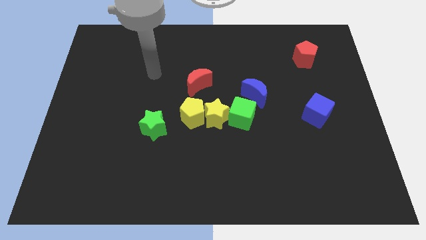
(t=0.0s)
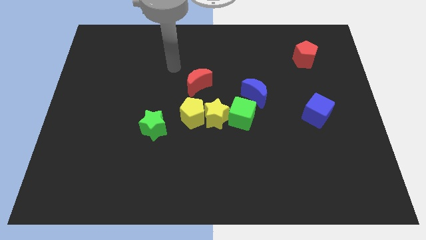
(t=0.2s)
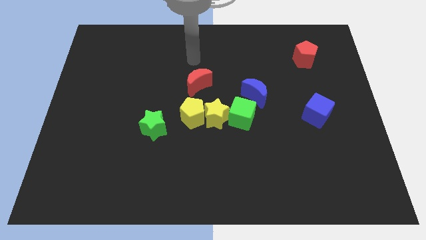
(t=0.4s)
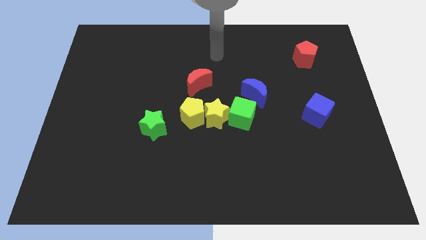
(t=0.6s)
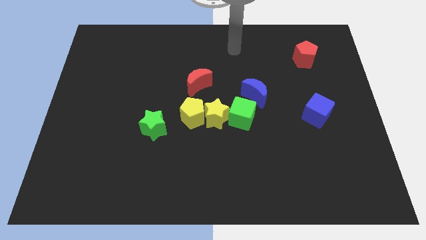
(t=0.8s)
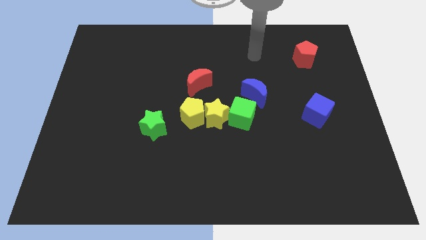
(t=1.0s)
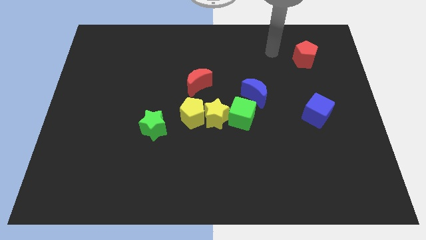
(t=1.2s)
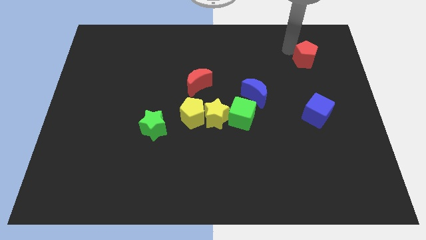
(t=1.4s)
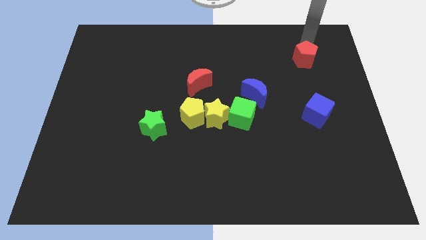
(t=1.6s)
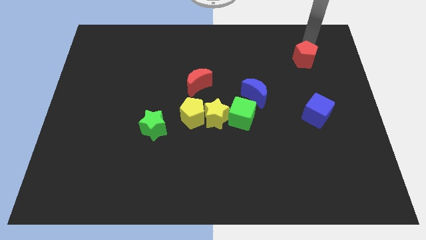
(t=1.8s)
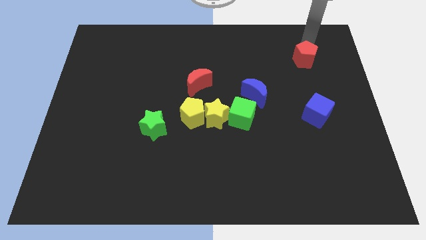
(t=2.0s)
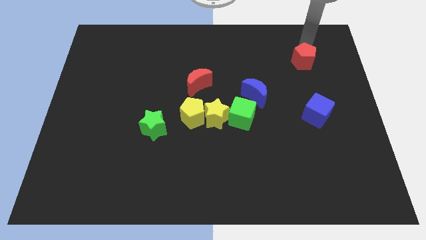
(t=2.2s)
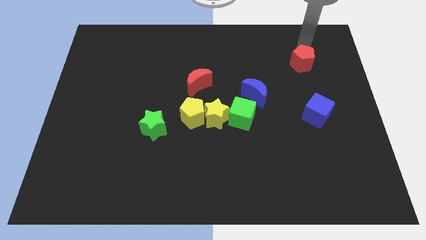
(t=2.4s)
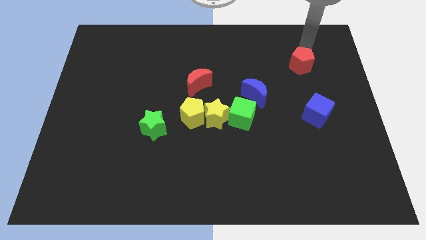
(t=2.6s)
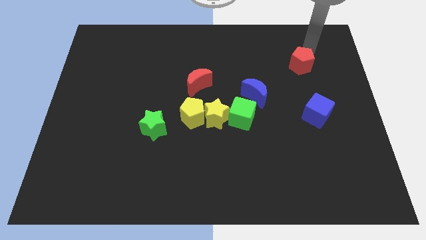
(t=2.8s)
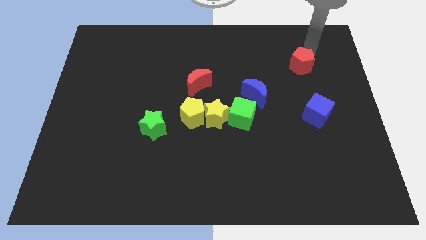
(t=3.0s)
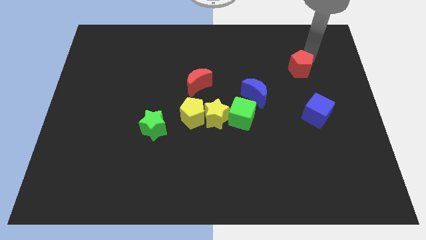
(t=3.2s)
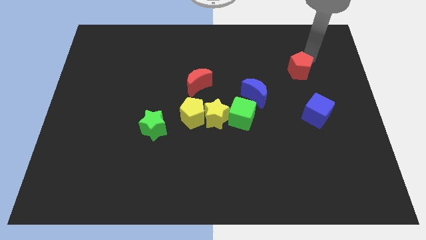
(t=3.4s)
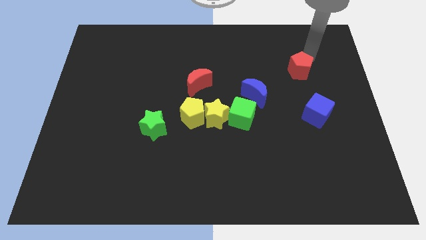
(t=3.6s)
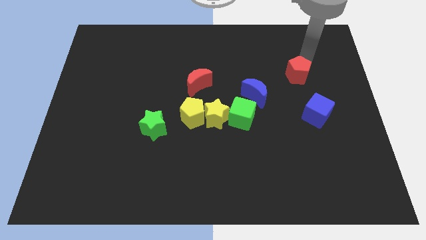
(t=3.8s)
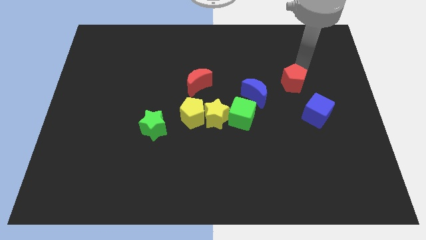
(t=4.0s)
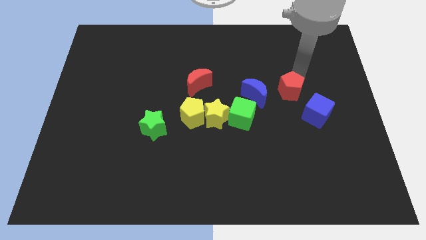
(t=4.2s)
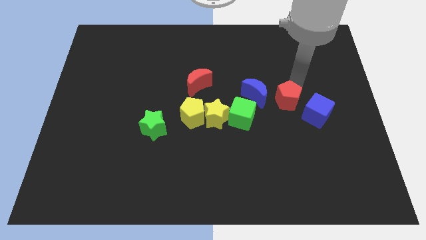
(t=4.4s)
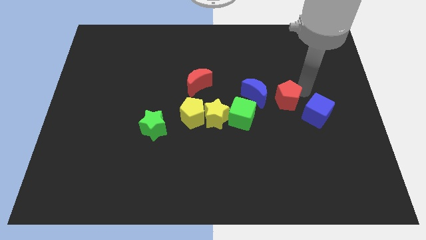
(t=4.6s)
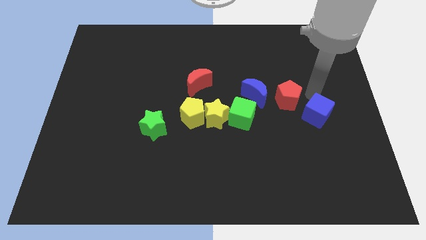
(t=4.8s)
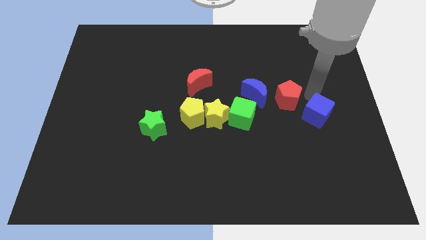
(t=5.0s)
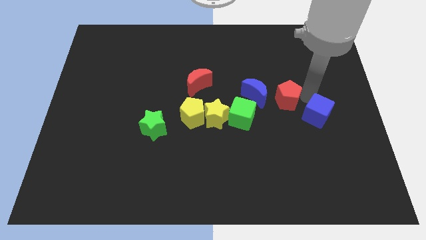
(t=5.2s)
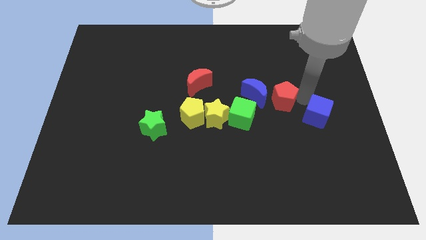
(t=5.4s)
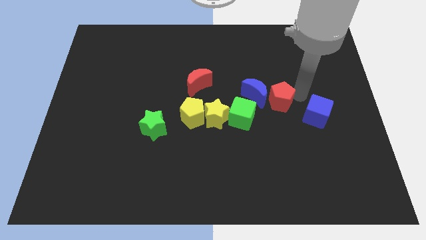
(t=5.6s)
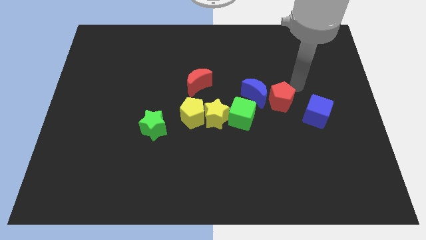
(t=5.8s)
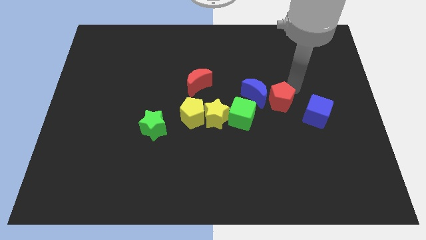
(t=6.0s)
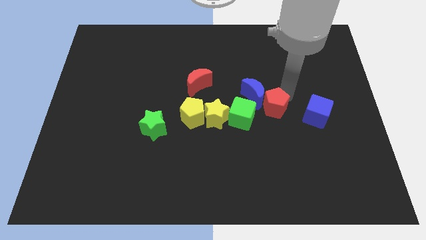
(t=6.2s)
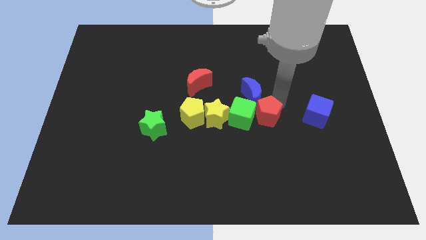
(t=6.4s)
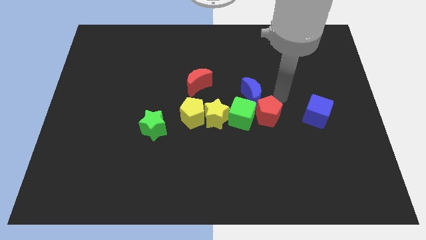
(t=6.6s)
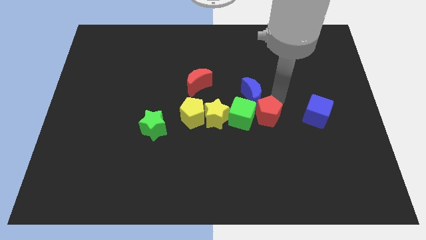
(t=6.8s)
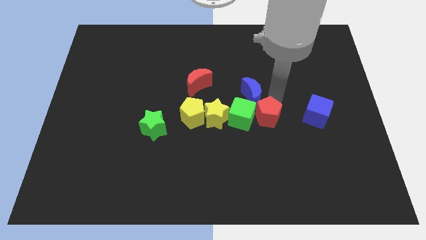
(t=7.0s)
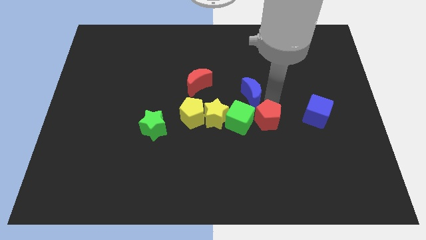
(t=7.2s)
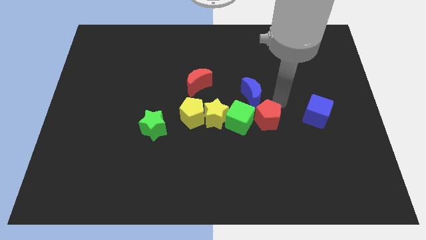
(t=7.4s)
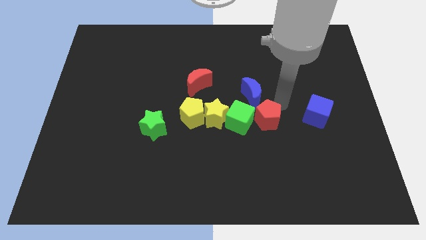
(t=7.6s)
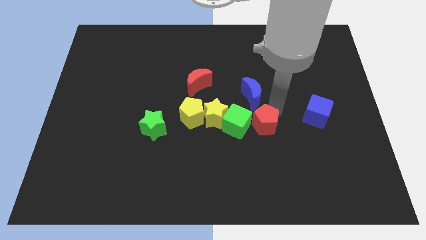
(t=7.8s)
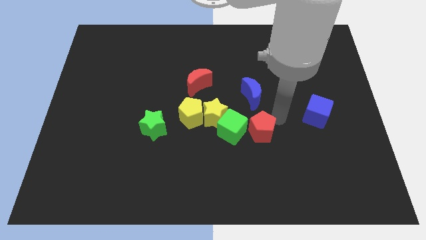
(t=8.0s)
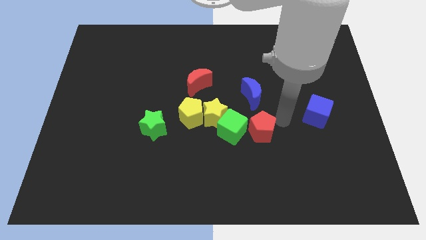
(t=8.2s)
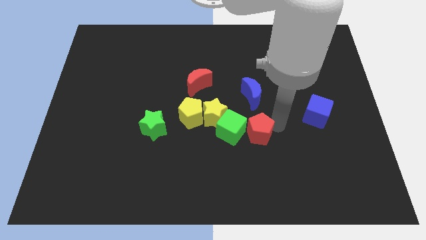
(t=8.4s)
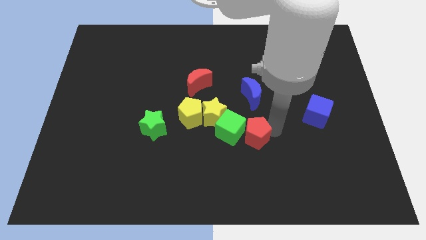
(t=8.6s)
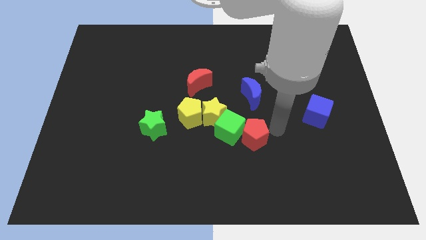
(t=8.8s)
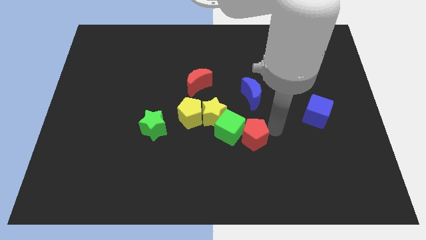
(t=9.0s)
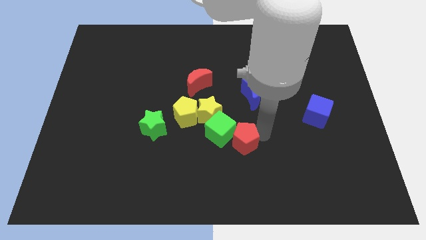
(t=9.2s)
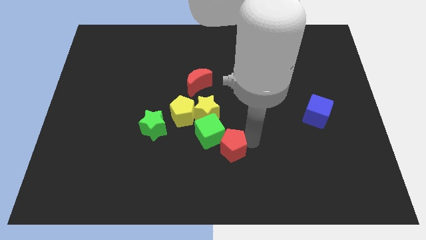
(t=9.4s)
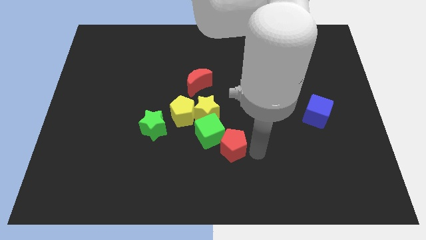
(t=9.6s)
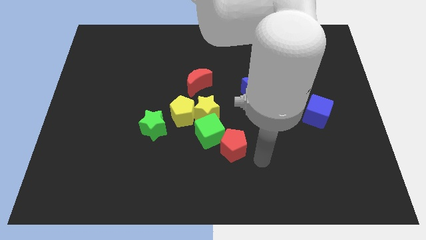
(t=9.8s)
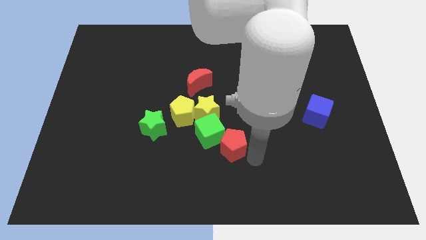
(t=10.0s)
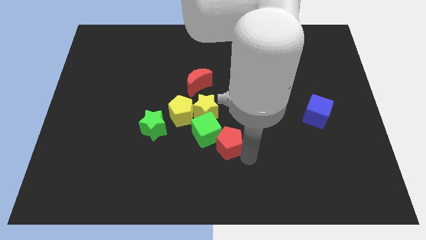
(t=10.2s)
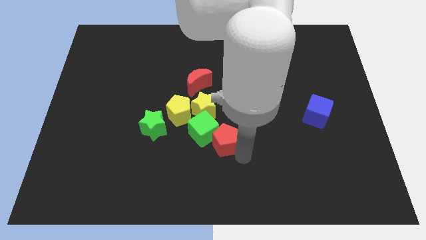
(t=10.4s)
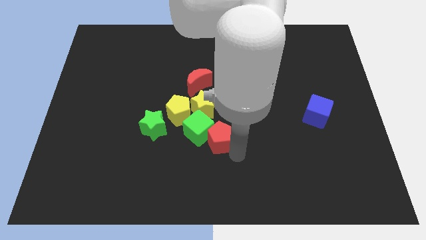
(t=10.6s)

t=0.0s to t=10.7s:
slide the red pentagon to the right side of the green star

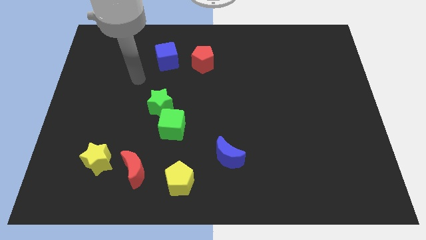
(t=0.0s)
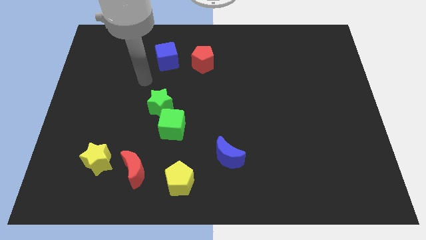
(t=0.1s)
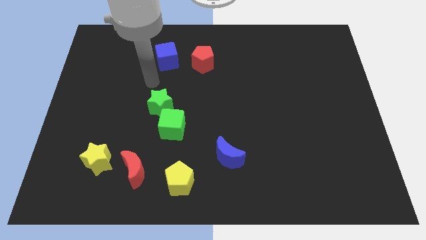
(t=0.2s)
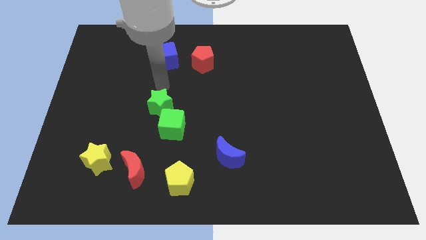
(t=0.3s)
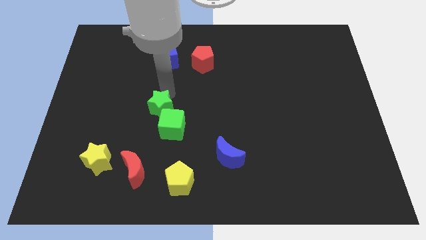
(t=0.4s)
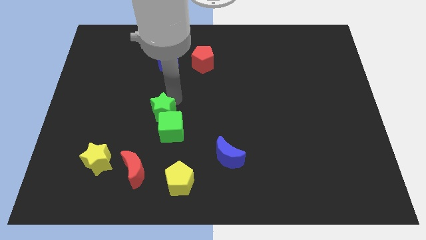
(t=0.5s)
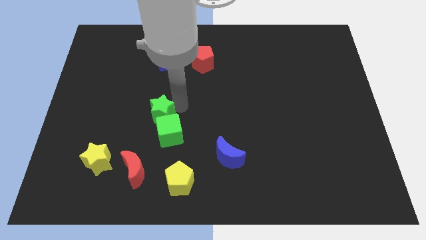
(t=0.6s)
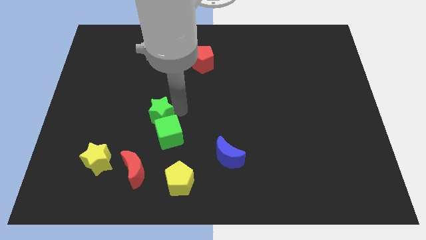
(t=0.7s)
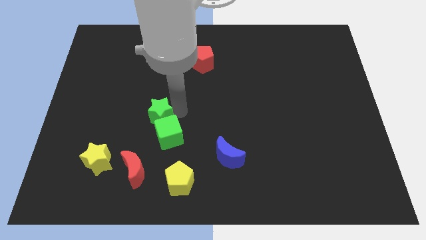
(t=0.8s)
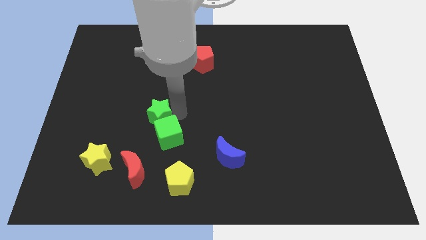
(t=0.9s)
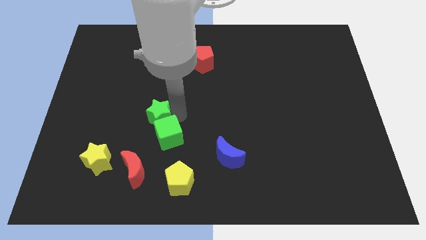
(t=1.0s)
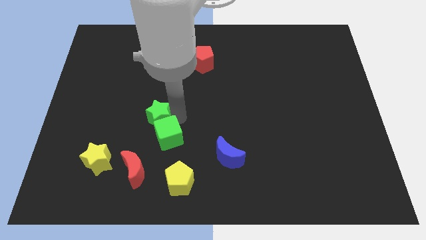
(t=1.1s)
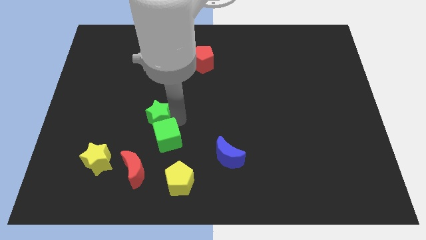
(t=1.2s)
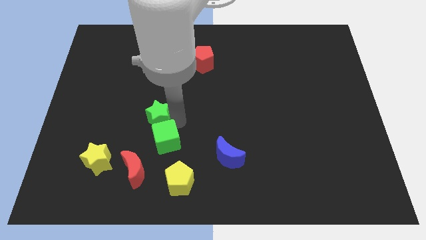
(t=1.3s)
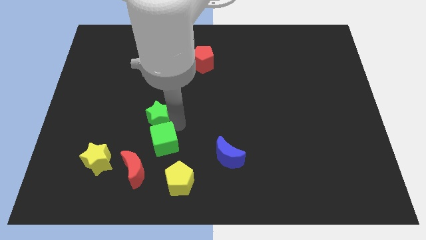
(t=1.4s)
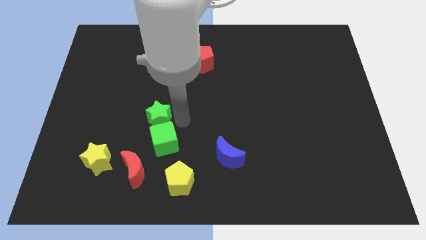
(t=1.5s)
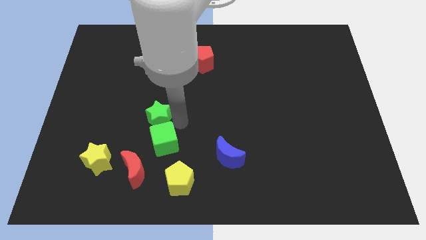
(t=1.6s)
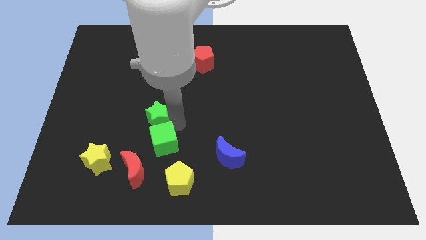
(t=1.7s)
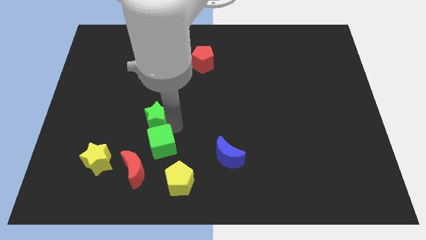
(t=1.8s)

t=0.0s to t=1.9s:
put the green cube just right of the yellow star
